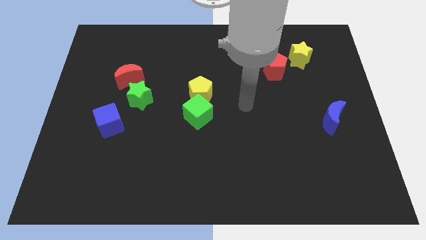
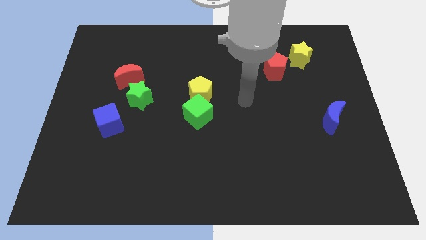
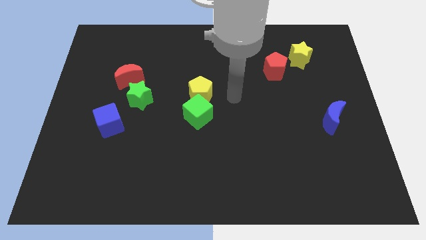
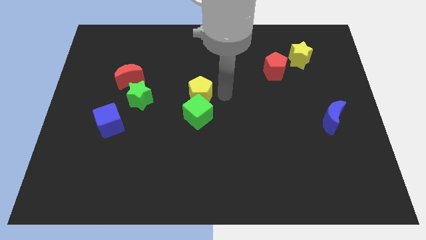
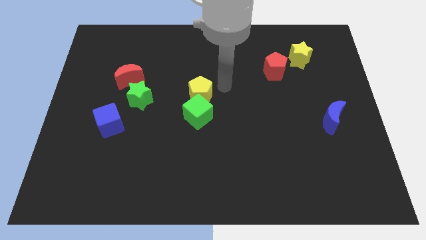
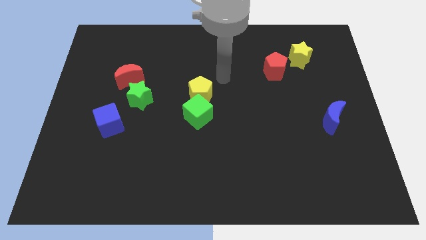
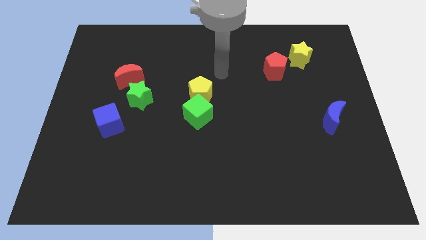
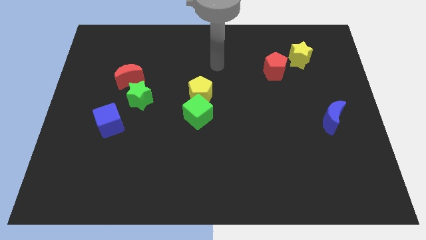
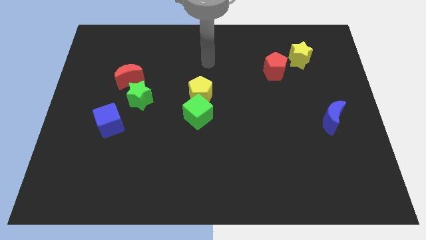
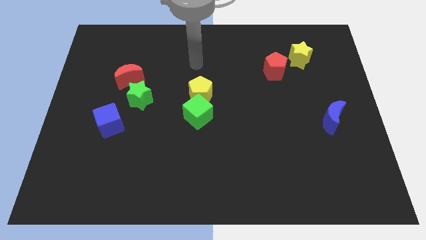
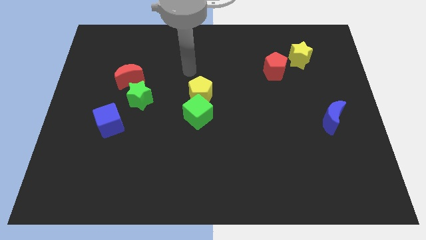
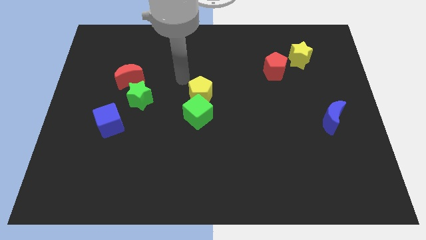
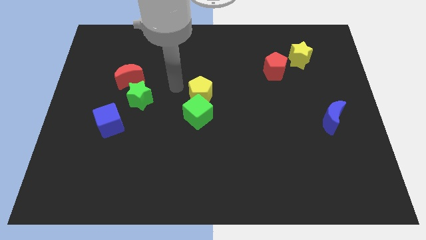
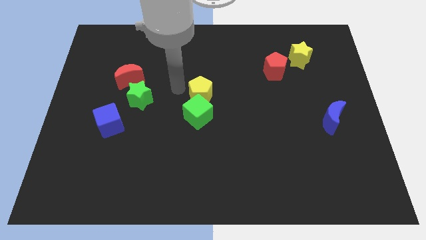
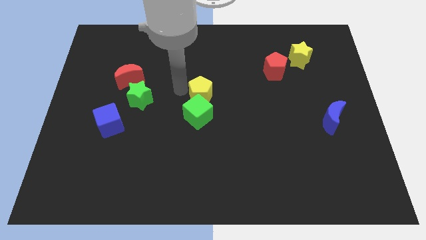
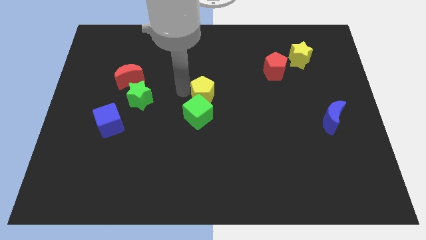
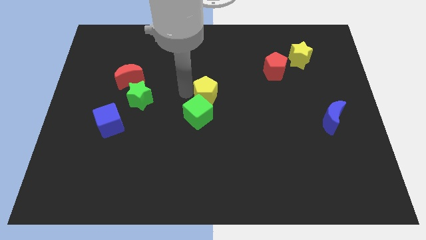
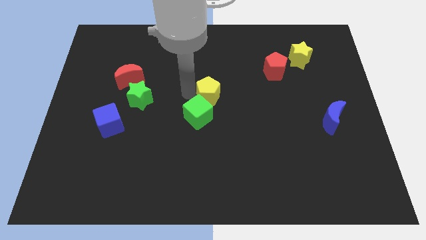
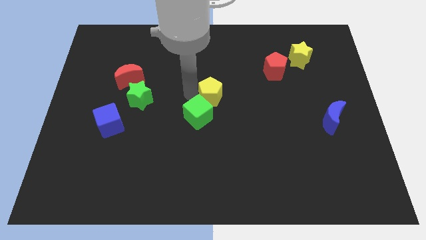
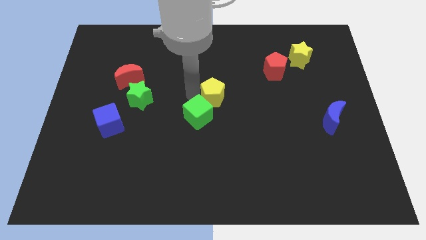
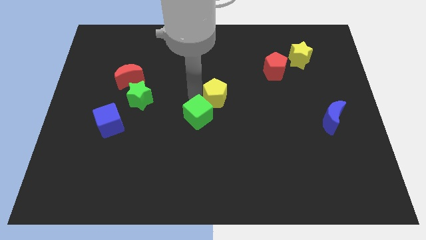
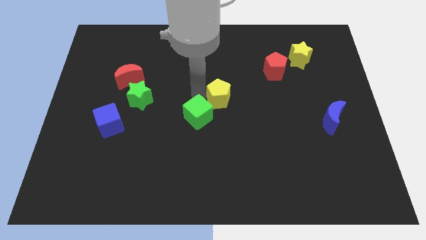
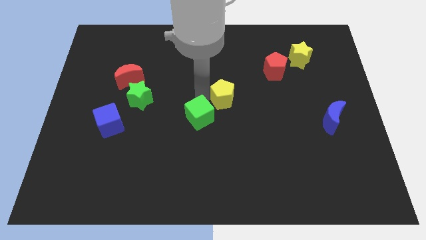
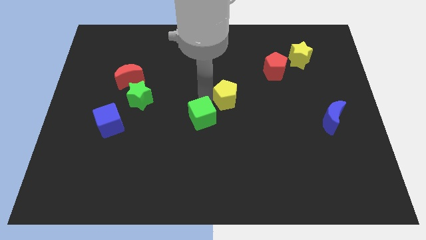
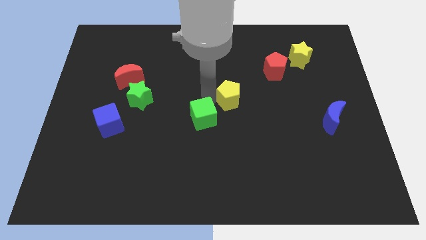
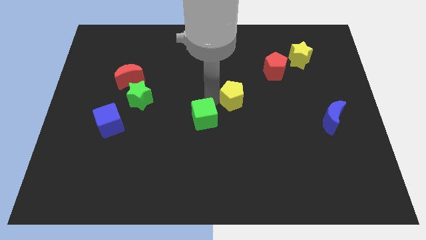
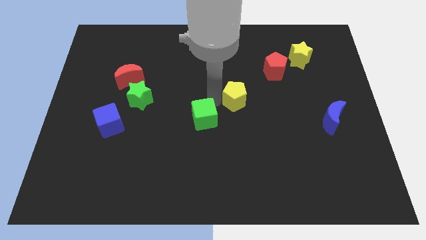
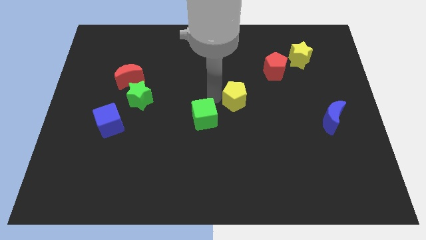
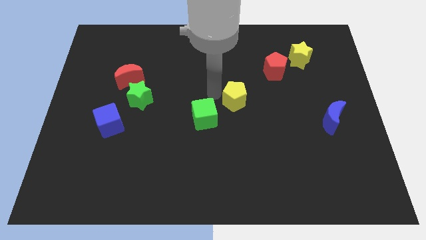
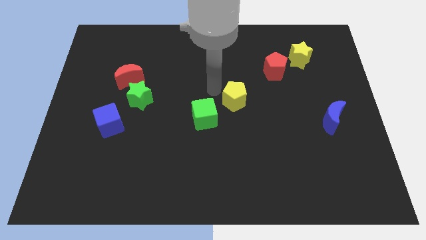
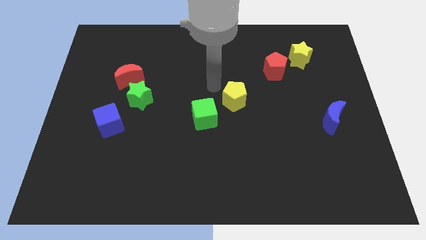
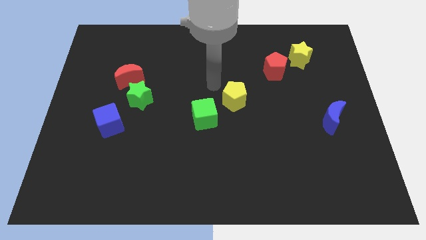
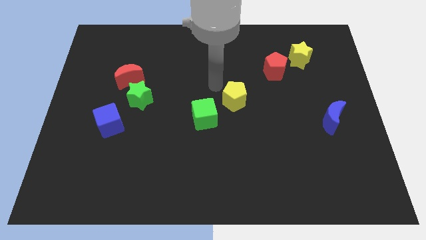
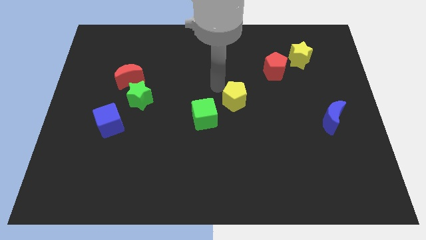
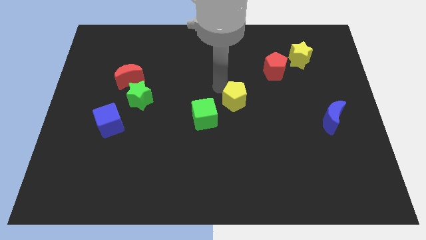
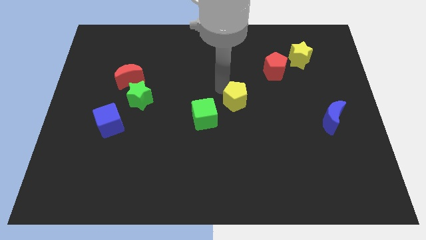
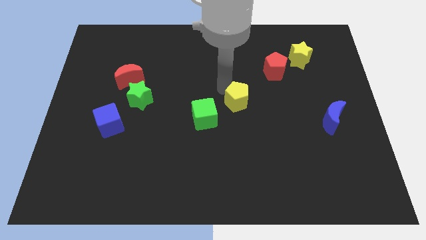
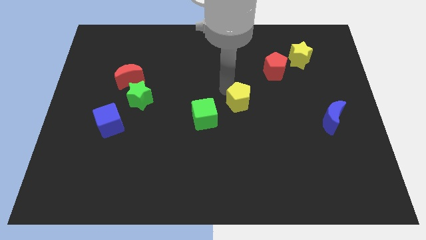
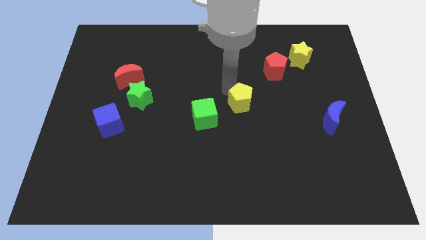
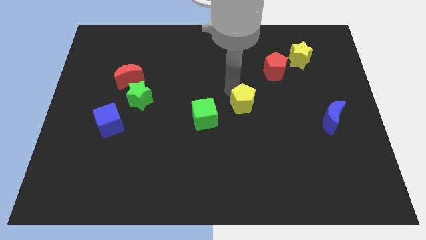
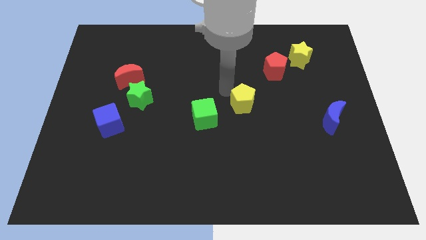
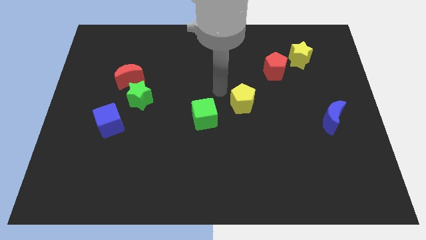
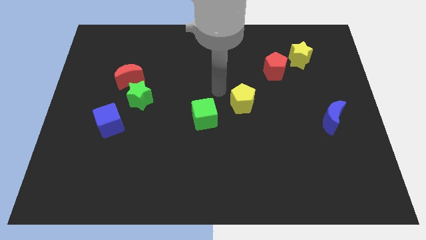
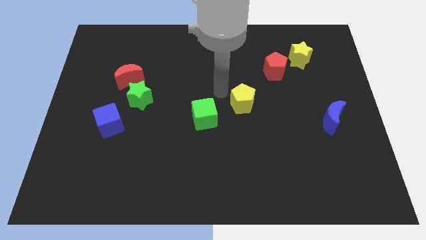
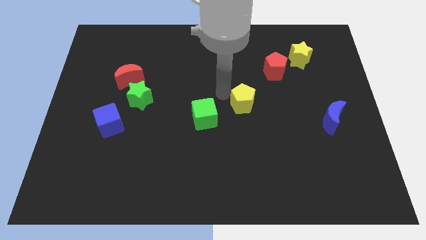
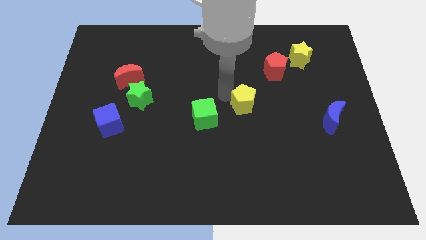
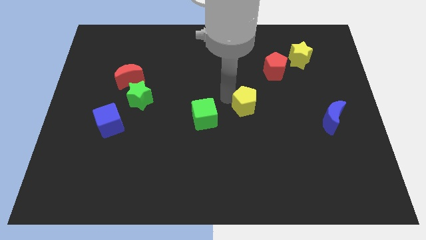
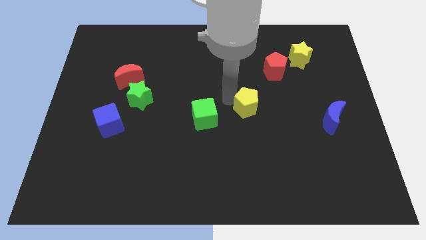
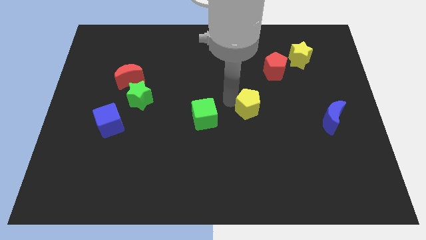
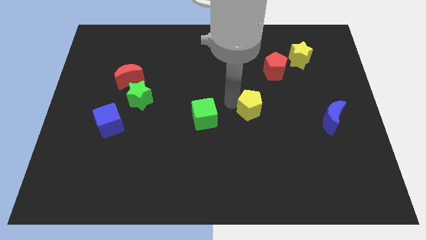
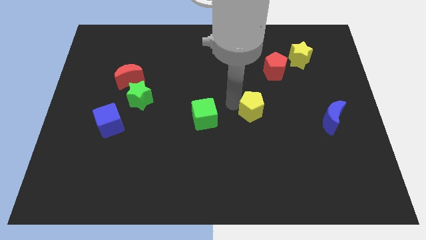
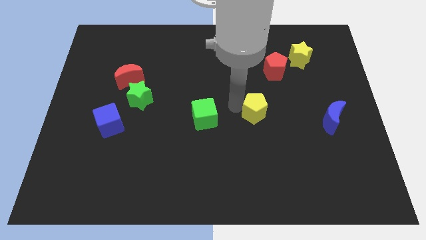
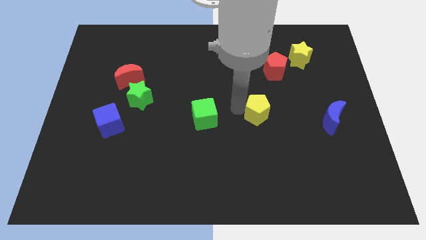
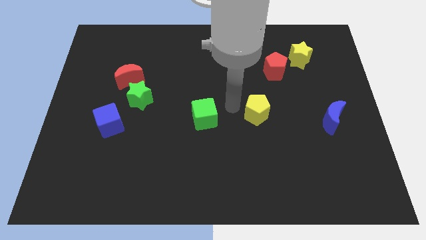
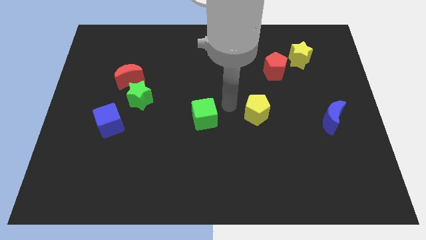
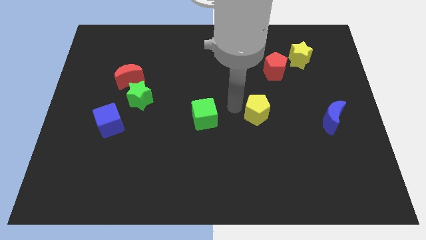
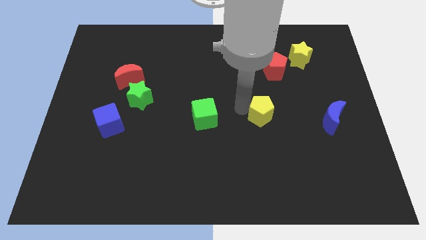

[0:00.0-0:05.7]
push the yellow pentagon to the left side of the blue moon

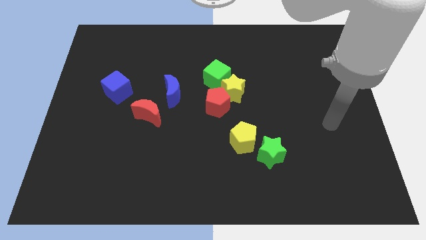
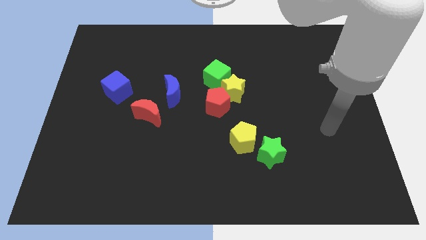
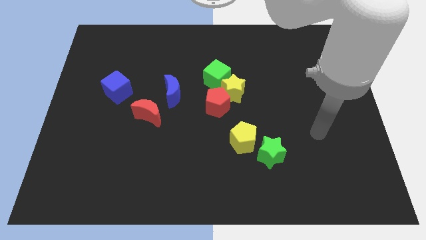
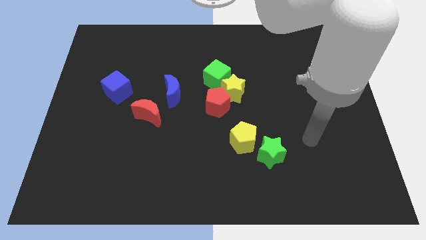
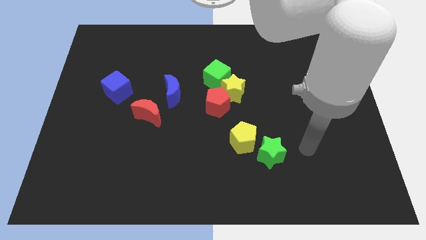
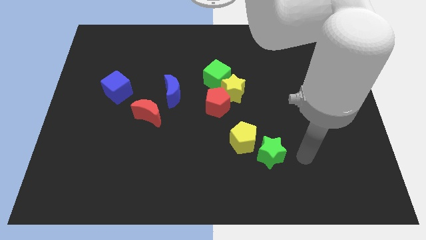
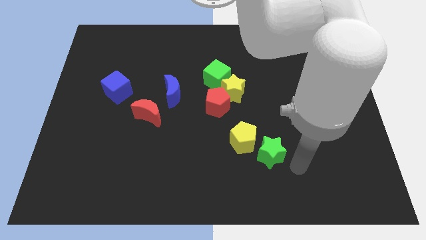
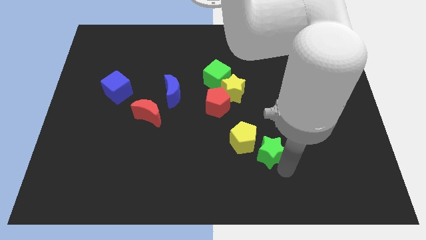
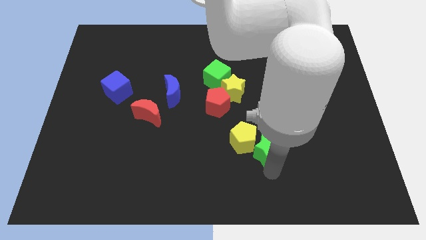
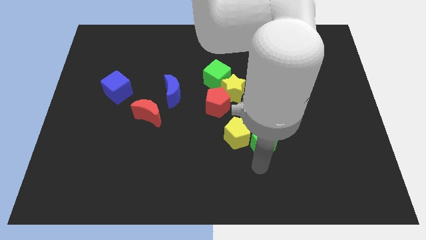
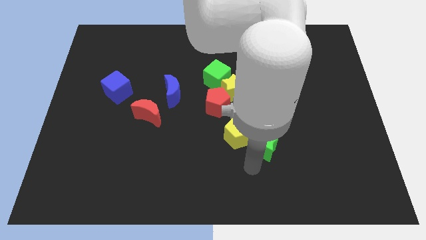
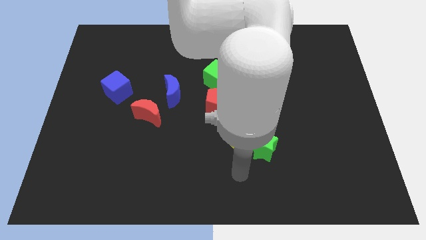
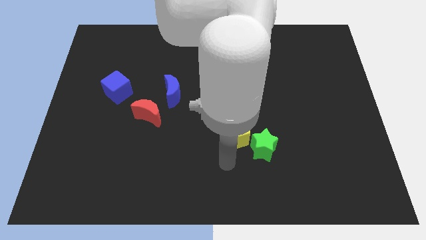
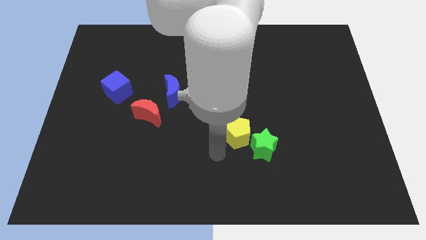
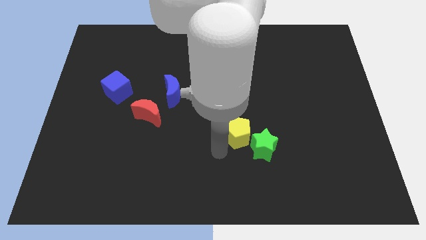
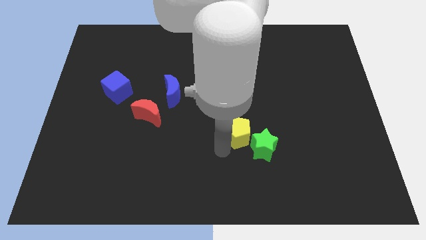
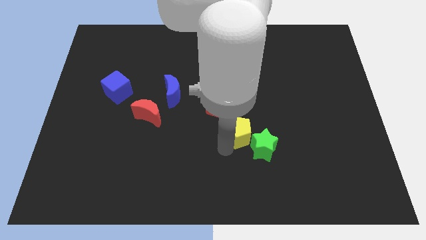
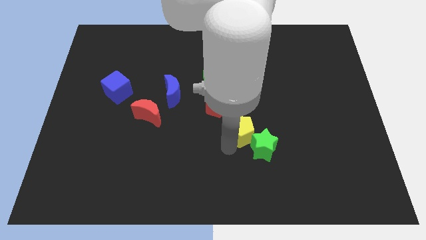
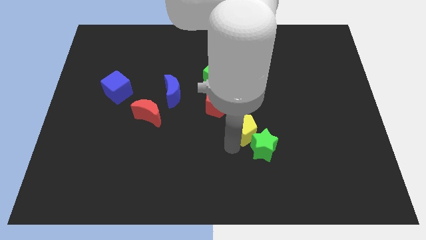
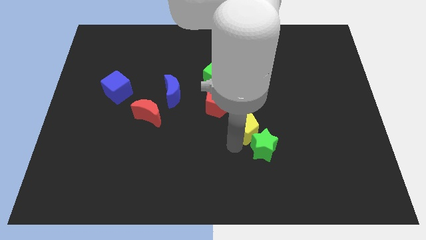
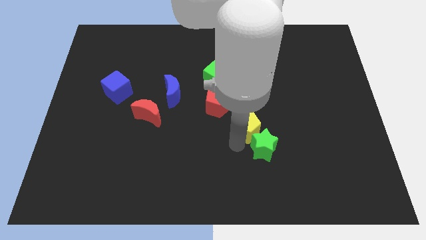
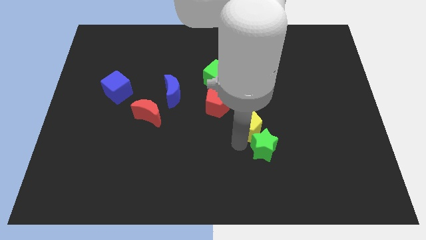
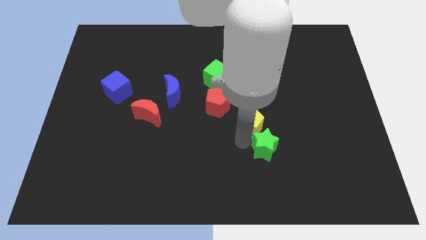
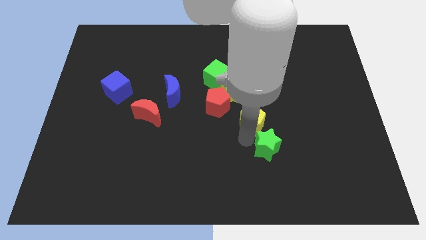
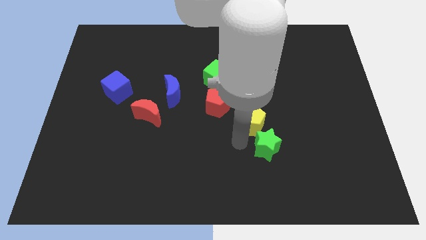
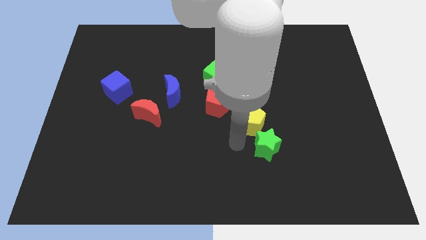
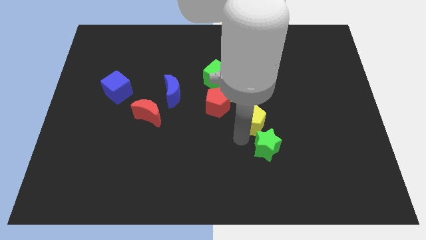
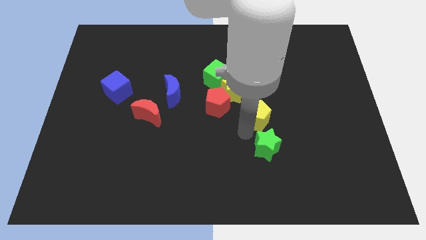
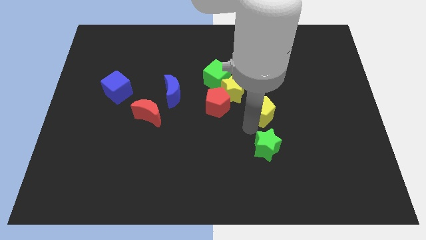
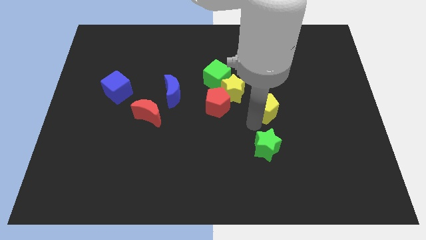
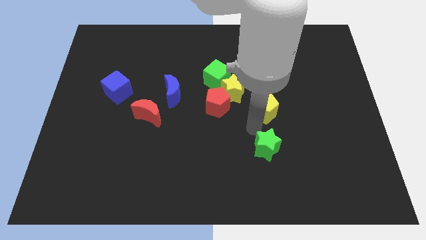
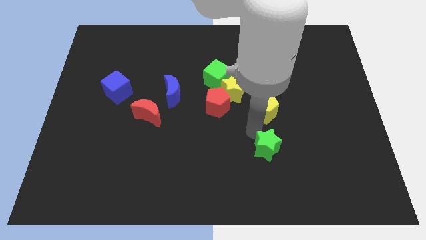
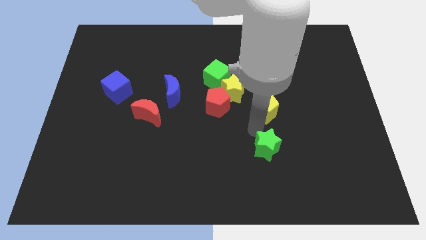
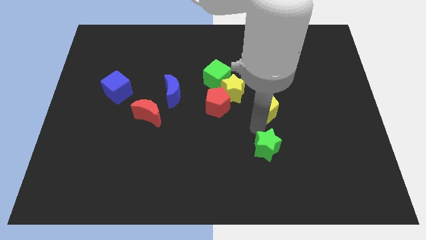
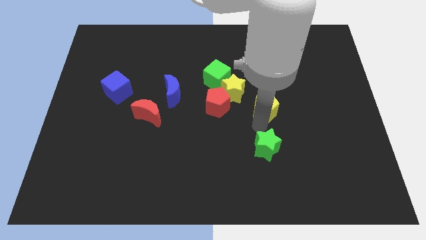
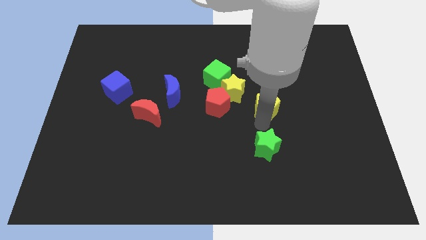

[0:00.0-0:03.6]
slide the yellow pentagon to the right side of the yellow star
